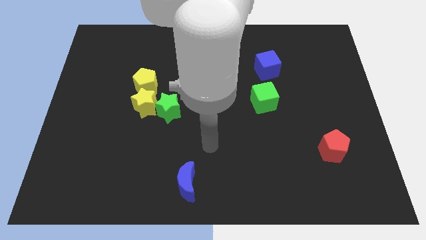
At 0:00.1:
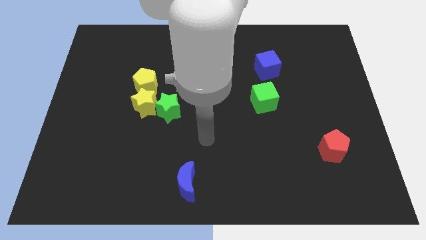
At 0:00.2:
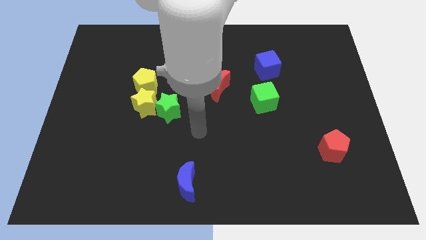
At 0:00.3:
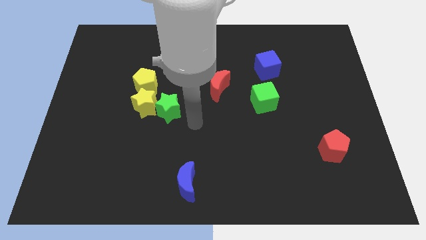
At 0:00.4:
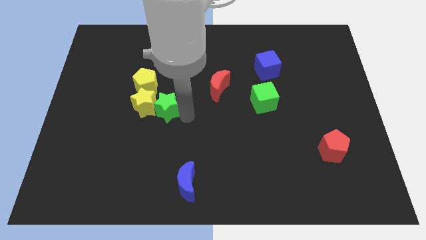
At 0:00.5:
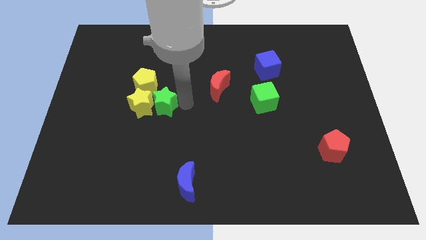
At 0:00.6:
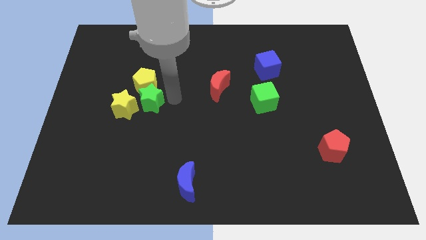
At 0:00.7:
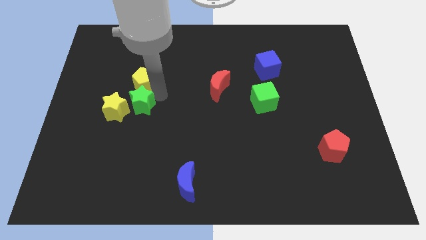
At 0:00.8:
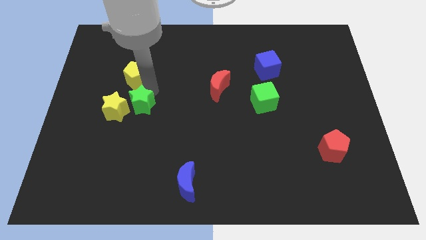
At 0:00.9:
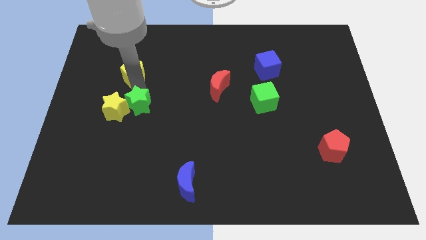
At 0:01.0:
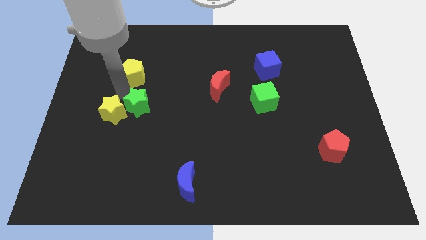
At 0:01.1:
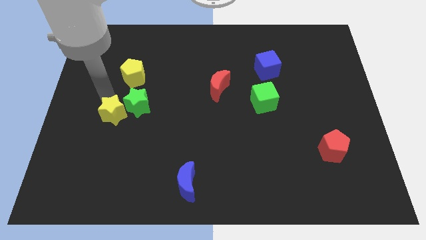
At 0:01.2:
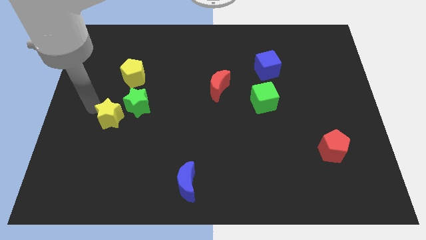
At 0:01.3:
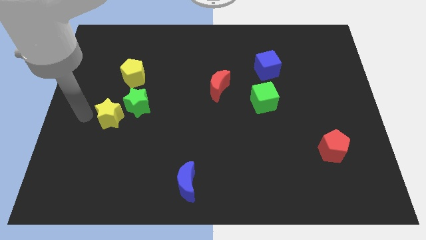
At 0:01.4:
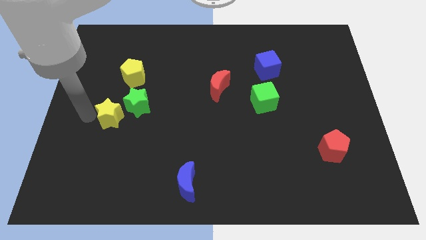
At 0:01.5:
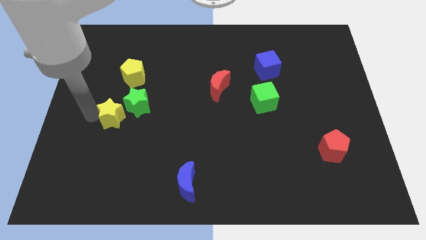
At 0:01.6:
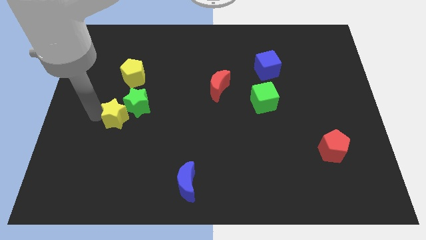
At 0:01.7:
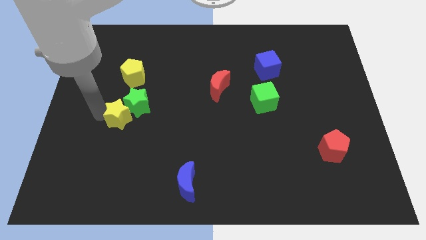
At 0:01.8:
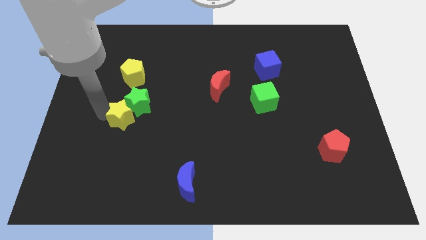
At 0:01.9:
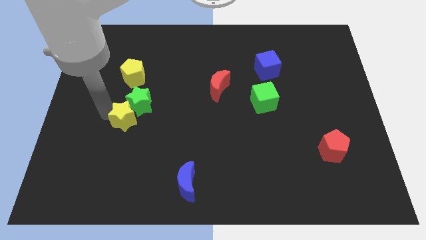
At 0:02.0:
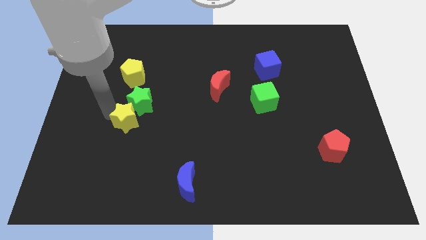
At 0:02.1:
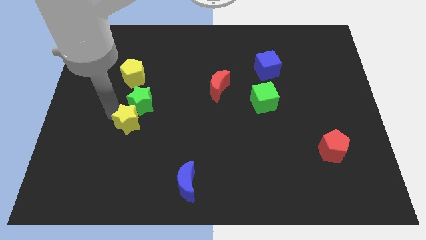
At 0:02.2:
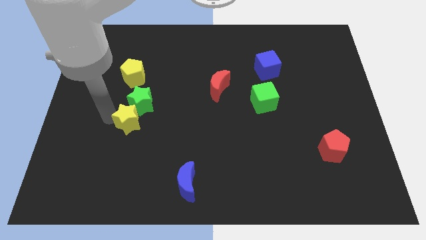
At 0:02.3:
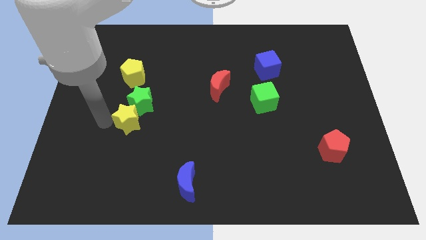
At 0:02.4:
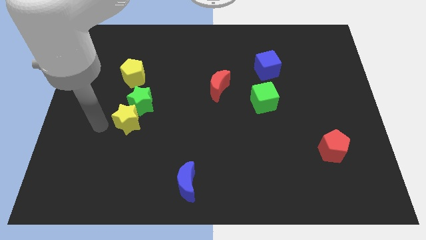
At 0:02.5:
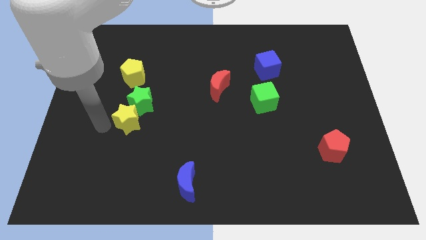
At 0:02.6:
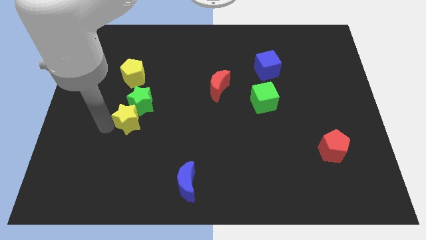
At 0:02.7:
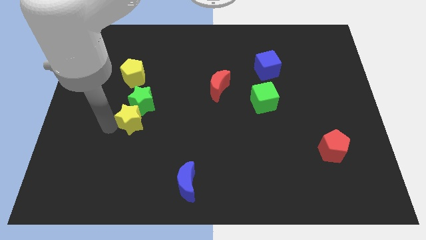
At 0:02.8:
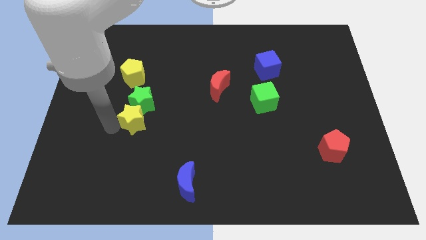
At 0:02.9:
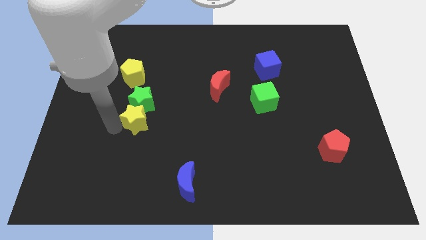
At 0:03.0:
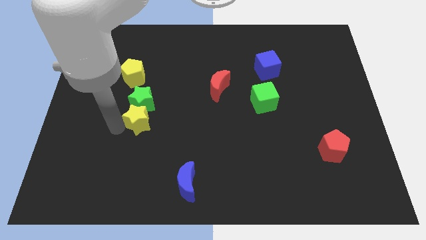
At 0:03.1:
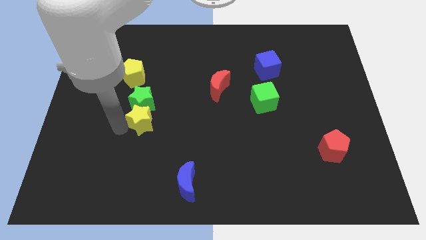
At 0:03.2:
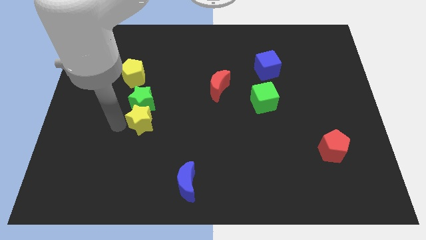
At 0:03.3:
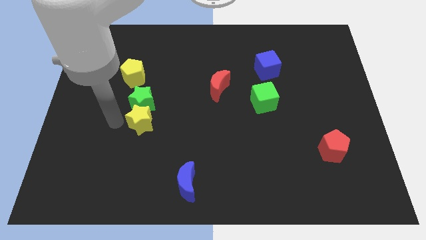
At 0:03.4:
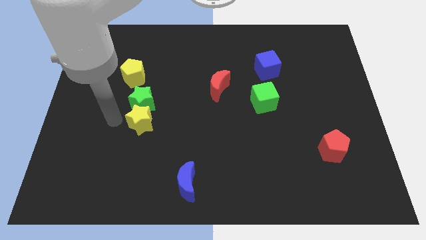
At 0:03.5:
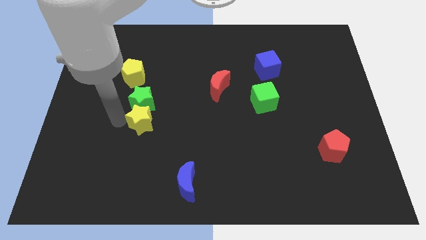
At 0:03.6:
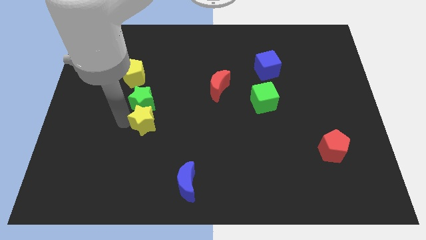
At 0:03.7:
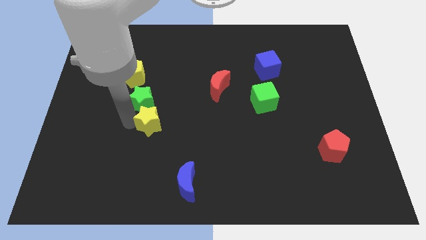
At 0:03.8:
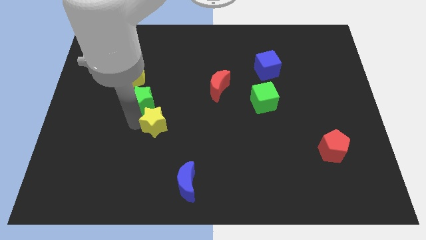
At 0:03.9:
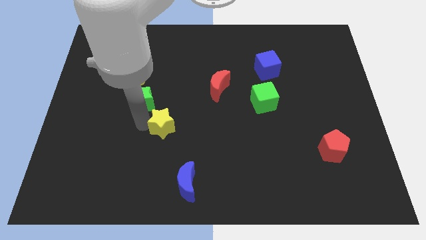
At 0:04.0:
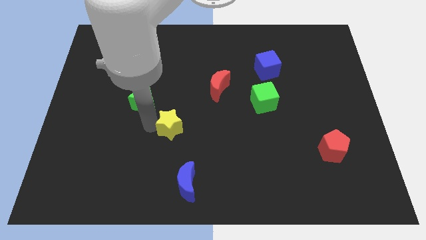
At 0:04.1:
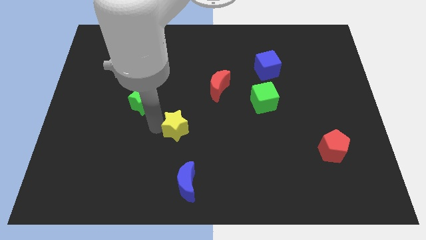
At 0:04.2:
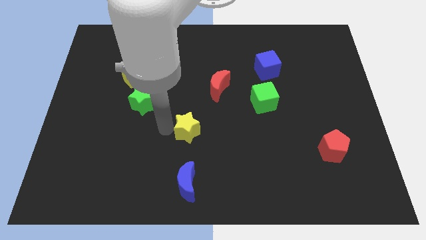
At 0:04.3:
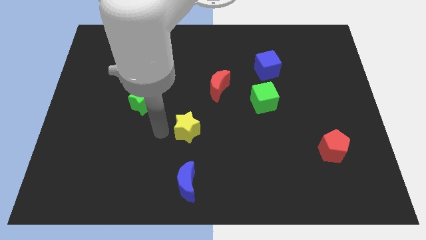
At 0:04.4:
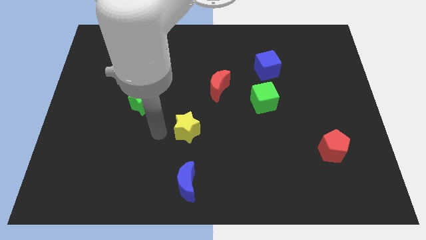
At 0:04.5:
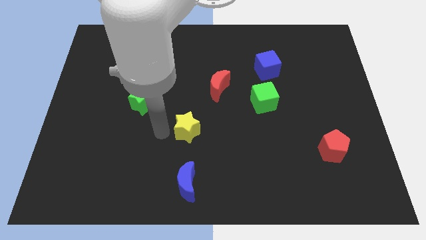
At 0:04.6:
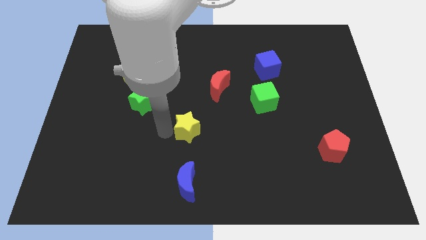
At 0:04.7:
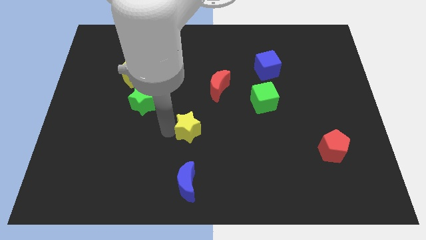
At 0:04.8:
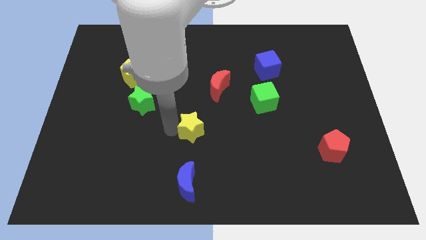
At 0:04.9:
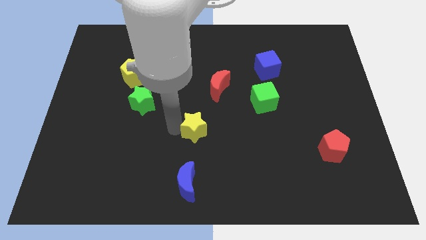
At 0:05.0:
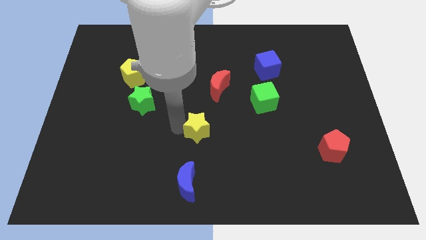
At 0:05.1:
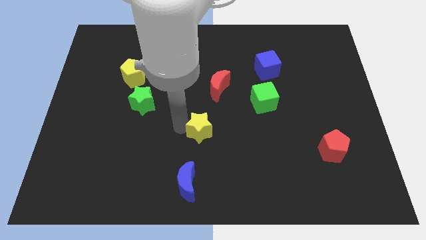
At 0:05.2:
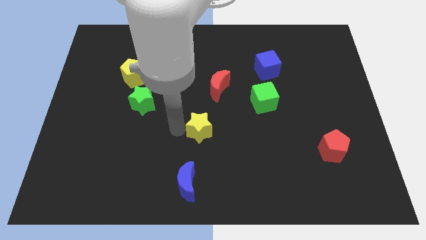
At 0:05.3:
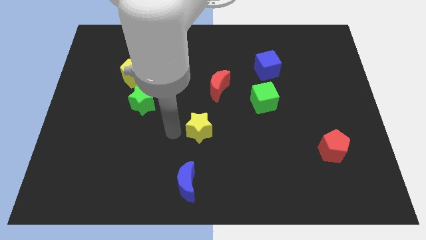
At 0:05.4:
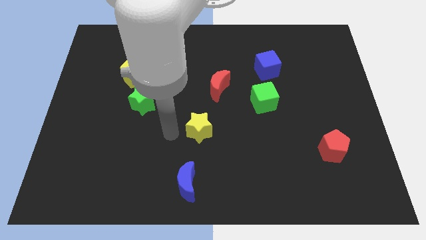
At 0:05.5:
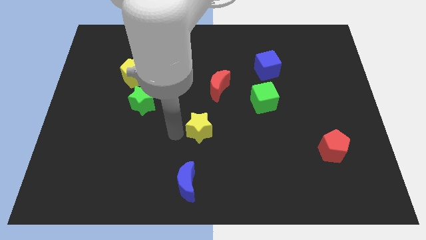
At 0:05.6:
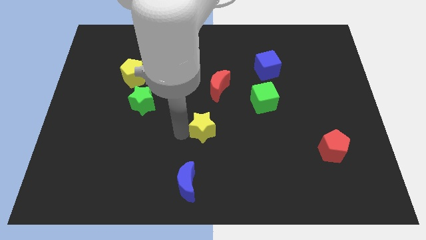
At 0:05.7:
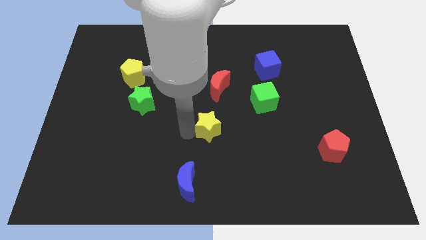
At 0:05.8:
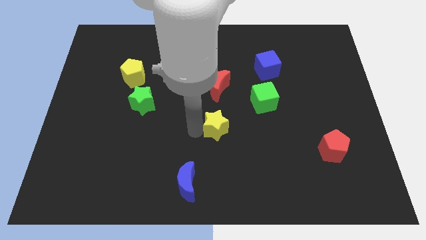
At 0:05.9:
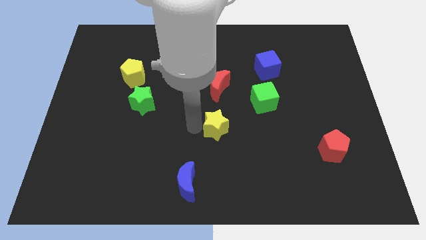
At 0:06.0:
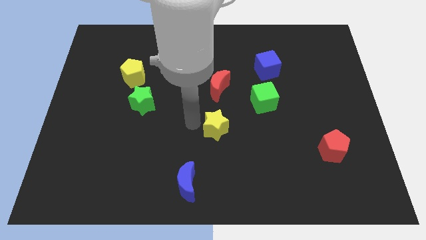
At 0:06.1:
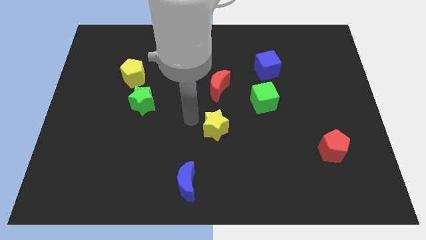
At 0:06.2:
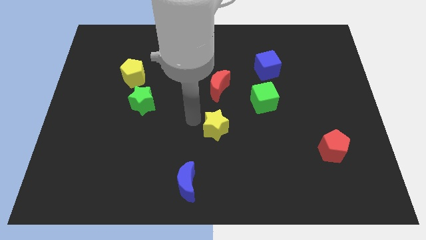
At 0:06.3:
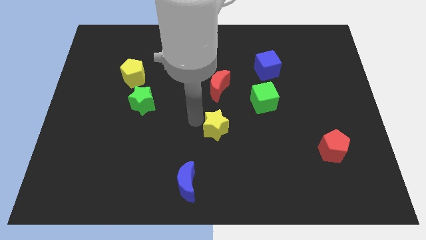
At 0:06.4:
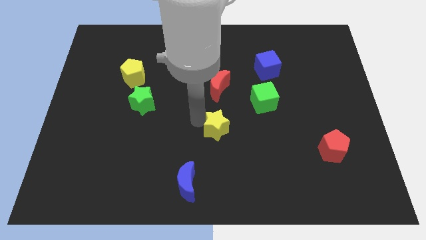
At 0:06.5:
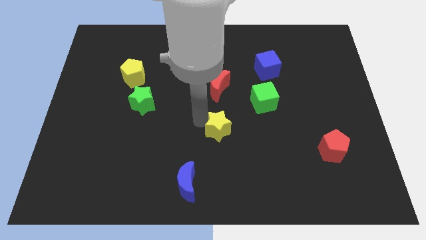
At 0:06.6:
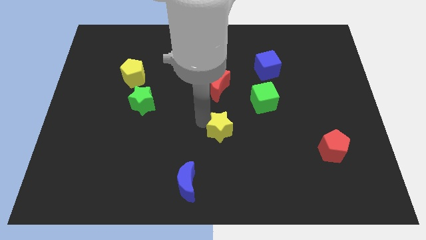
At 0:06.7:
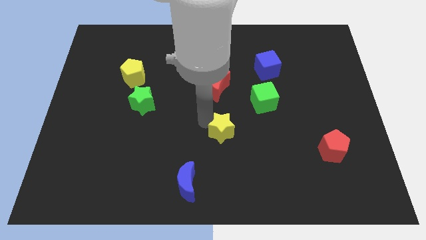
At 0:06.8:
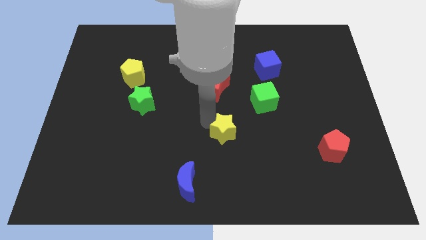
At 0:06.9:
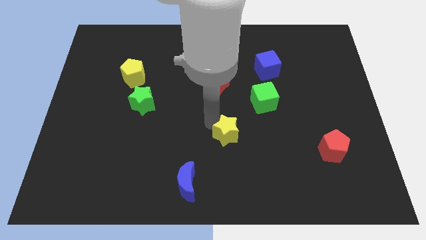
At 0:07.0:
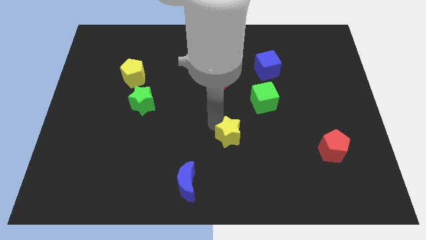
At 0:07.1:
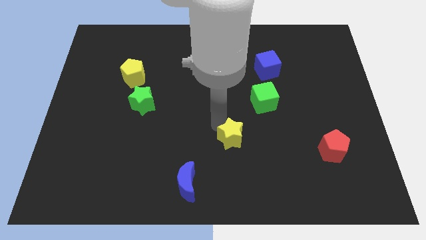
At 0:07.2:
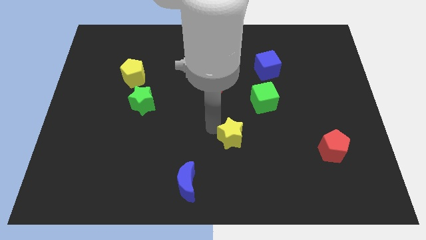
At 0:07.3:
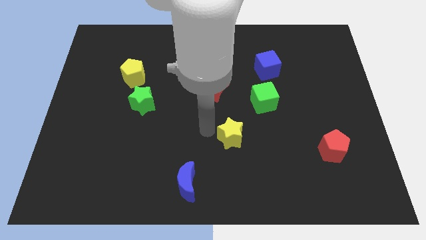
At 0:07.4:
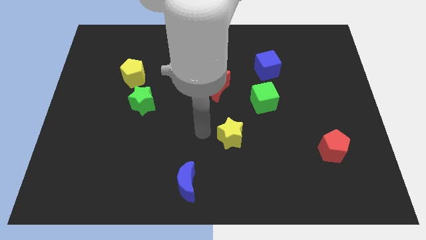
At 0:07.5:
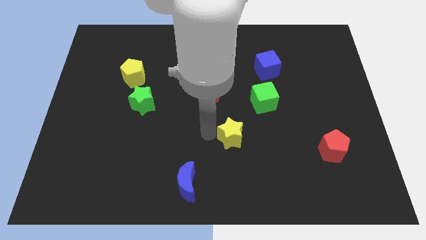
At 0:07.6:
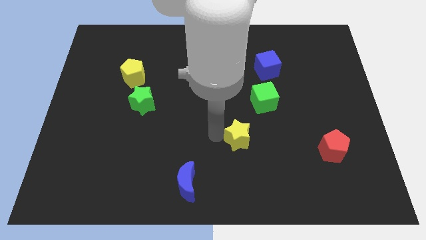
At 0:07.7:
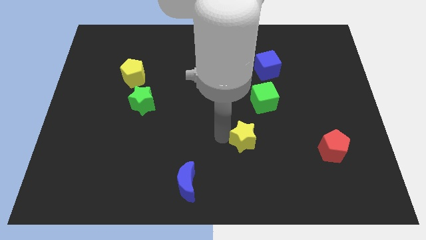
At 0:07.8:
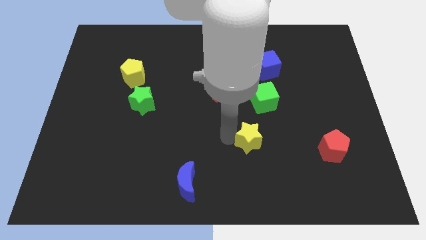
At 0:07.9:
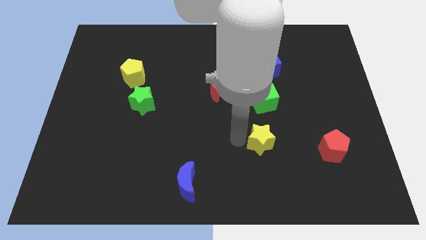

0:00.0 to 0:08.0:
put the yellow star just left of the red pentagon
